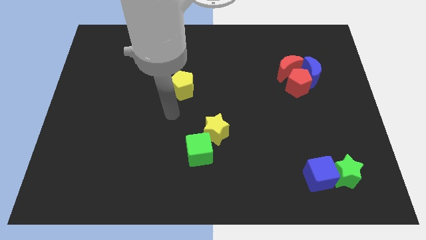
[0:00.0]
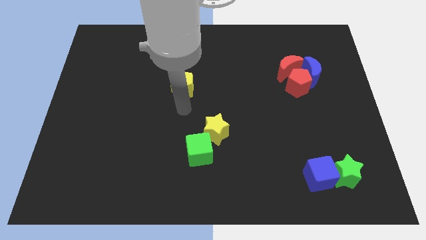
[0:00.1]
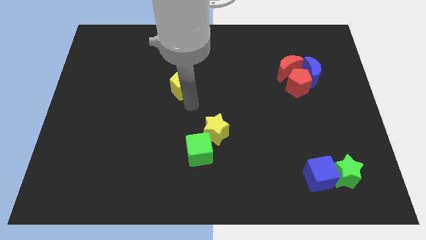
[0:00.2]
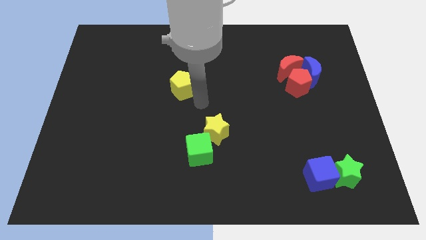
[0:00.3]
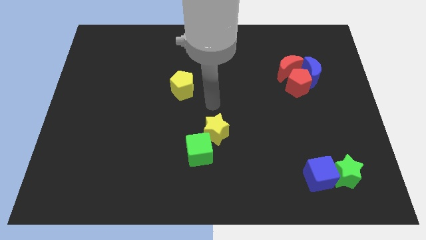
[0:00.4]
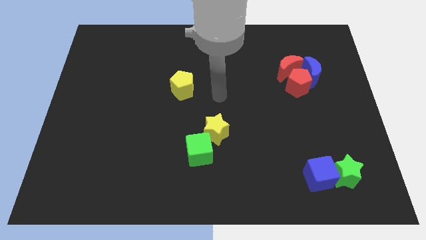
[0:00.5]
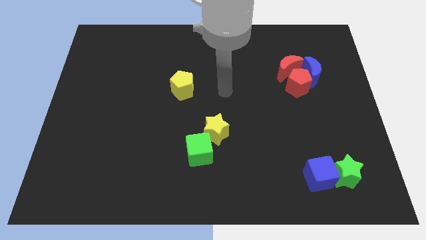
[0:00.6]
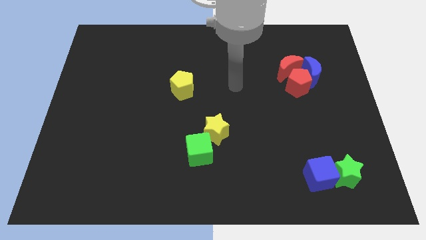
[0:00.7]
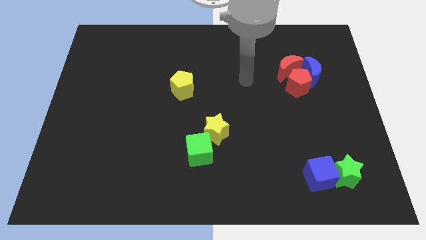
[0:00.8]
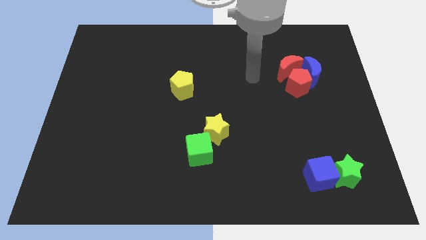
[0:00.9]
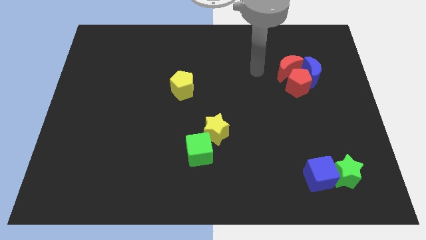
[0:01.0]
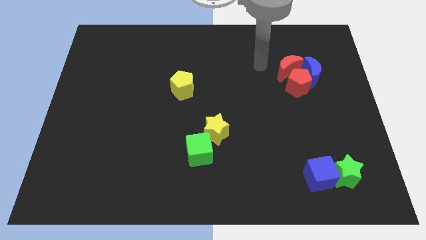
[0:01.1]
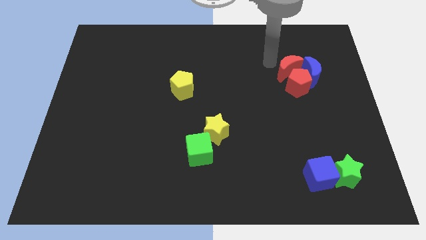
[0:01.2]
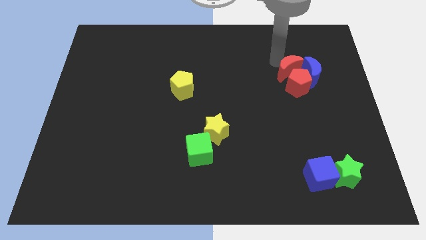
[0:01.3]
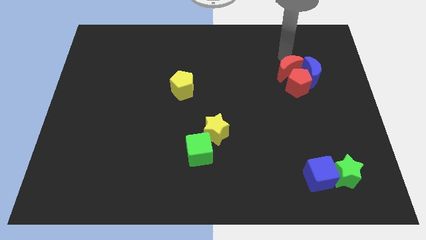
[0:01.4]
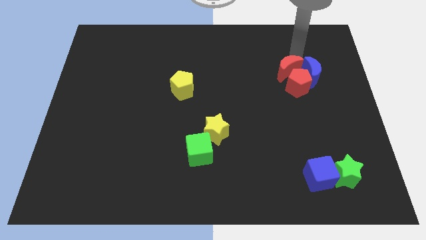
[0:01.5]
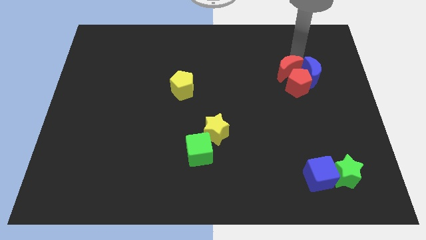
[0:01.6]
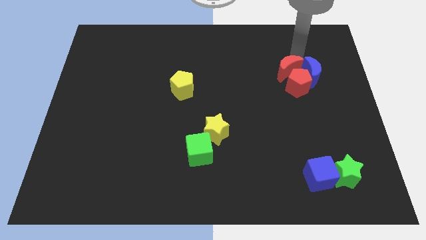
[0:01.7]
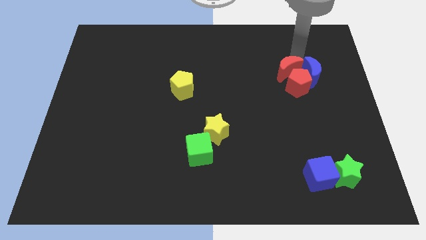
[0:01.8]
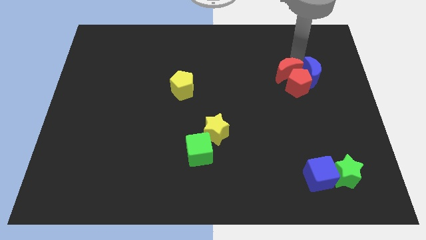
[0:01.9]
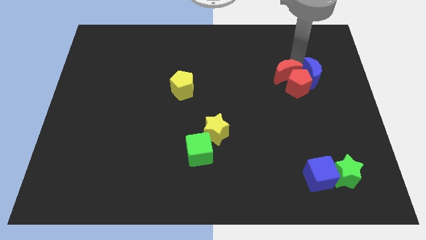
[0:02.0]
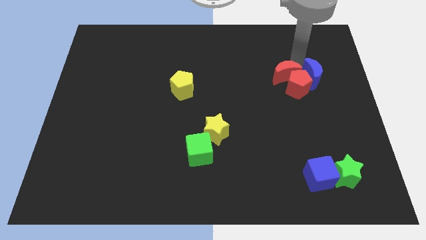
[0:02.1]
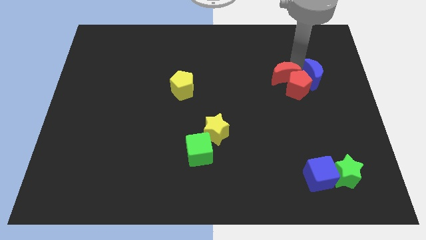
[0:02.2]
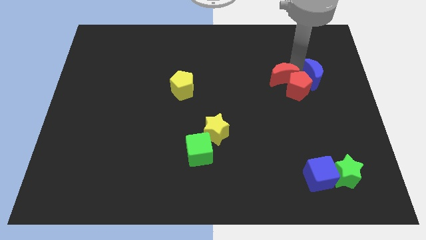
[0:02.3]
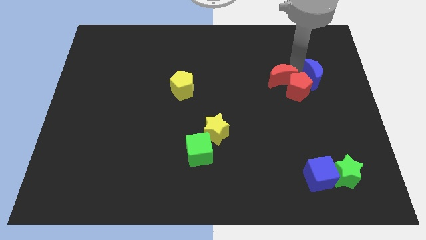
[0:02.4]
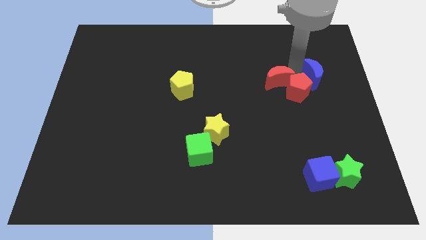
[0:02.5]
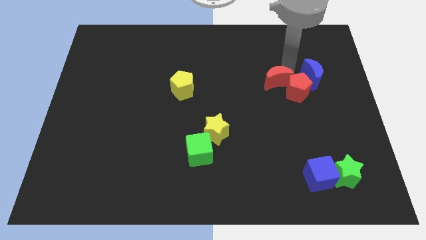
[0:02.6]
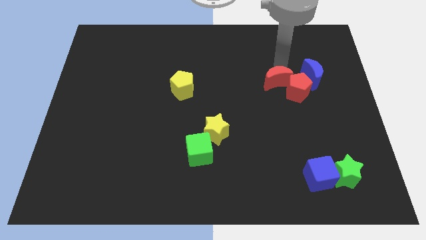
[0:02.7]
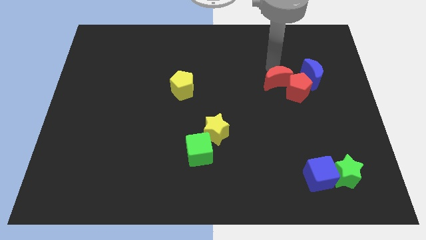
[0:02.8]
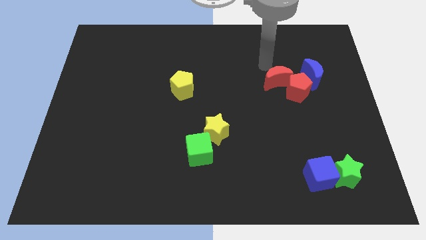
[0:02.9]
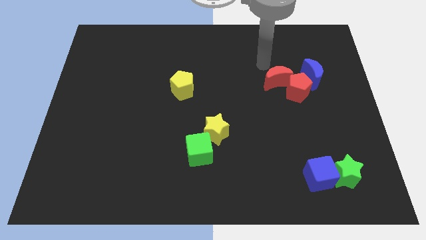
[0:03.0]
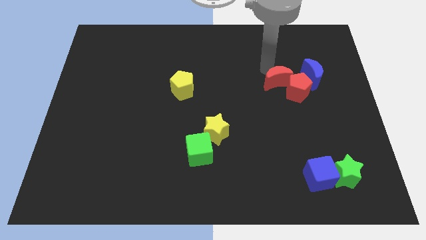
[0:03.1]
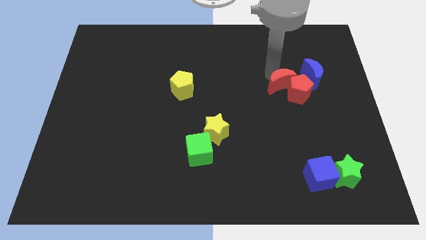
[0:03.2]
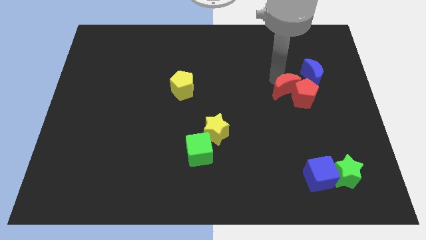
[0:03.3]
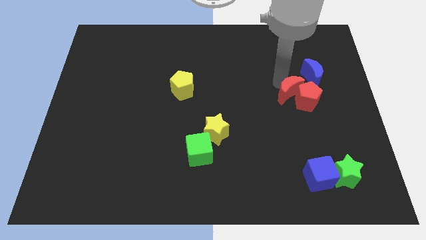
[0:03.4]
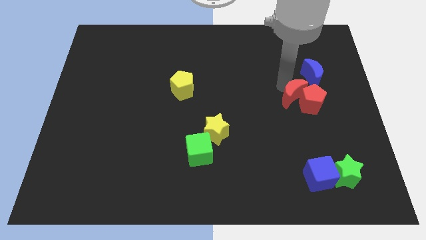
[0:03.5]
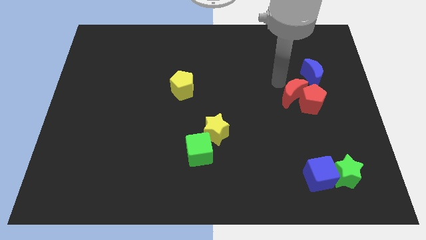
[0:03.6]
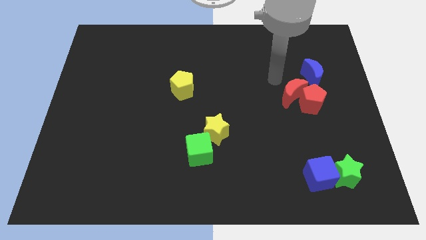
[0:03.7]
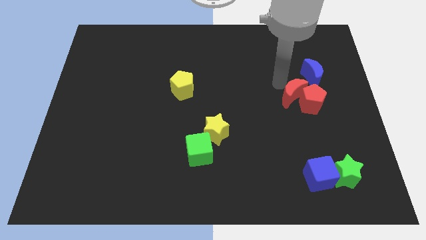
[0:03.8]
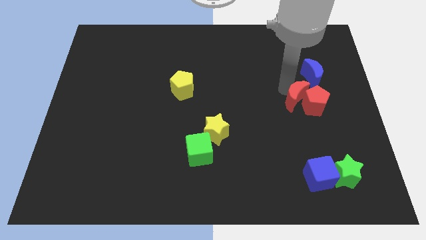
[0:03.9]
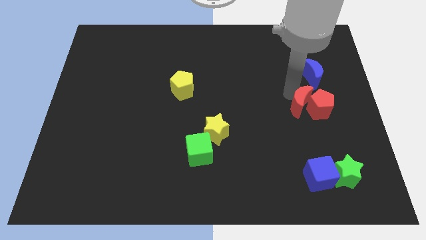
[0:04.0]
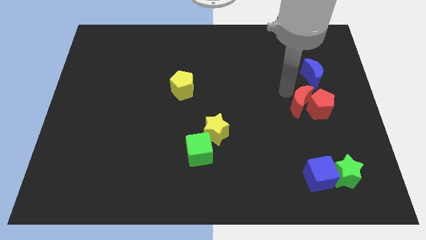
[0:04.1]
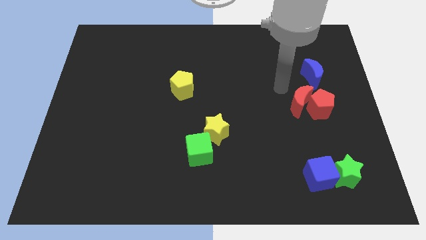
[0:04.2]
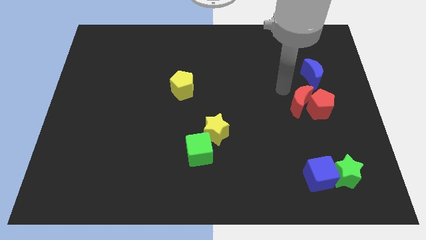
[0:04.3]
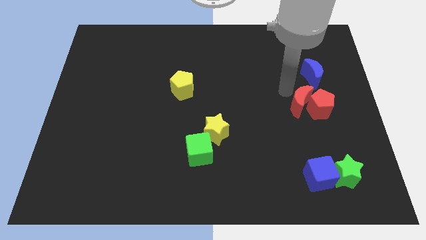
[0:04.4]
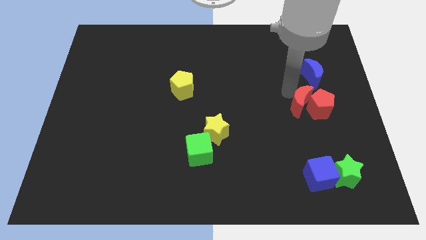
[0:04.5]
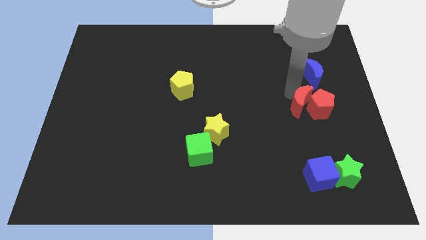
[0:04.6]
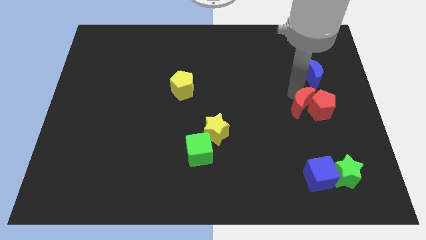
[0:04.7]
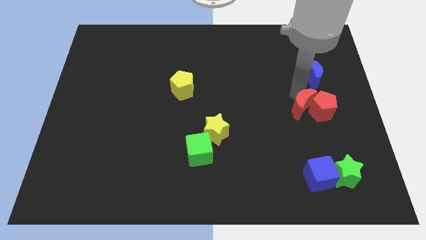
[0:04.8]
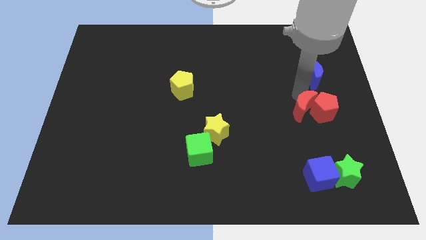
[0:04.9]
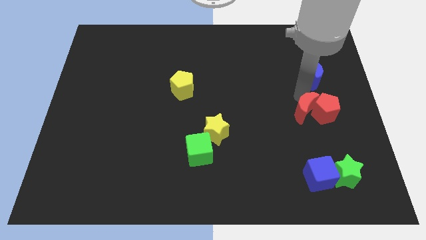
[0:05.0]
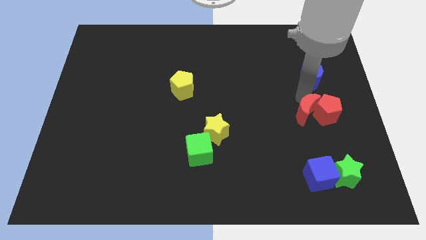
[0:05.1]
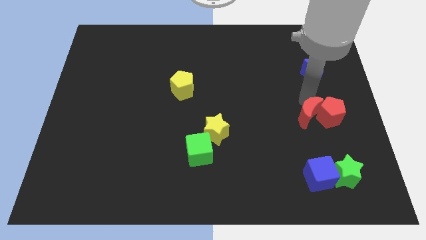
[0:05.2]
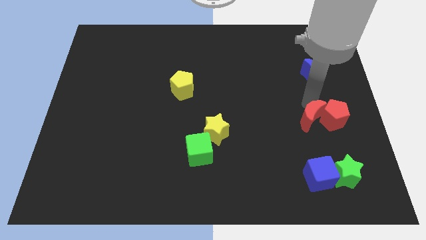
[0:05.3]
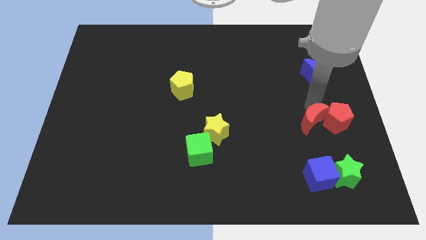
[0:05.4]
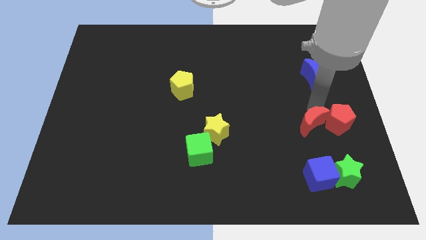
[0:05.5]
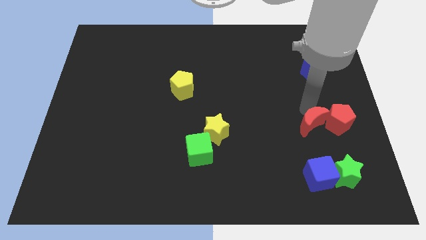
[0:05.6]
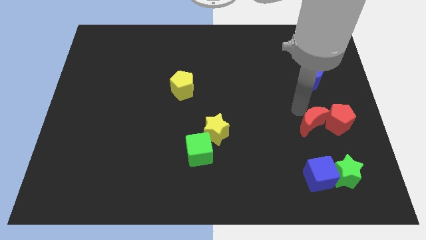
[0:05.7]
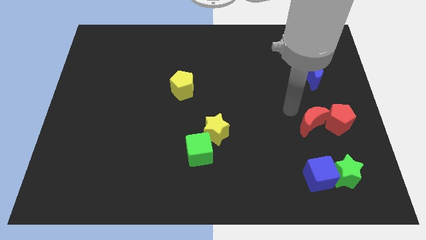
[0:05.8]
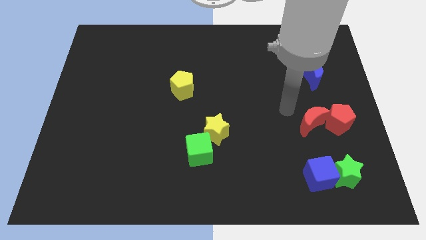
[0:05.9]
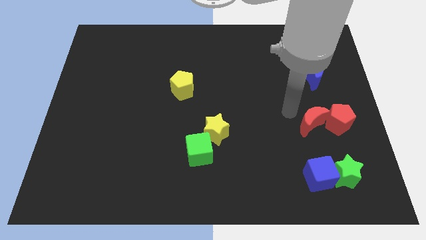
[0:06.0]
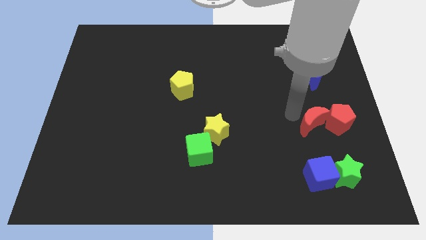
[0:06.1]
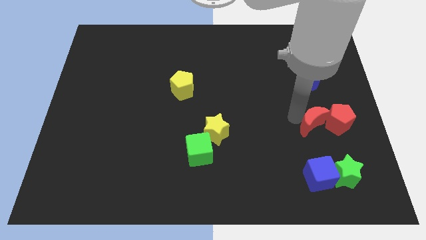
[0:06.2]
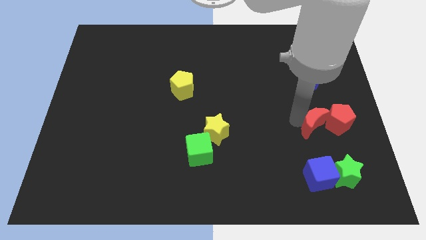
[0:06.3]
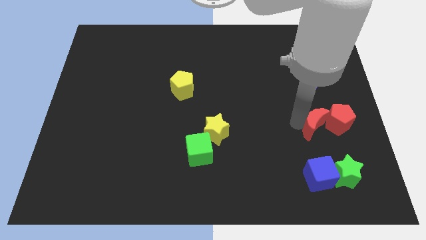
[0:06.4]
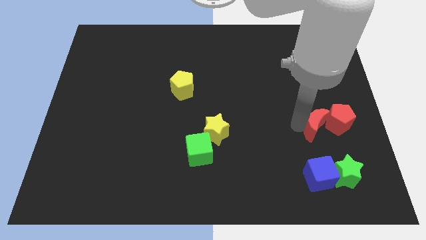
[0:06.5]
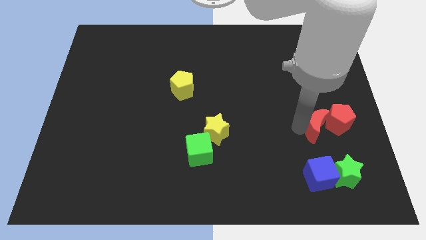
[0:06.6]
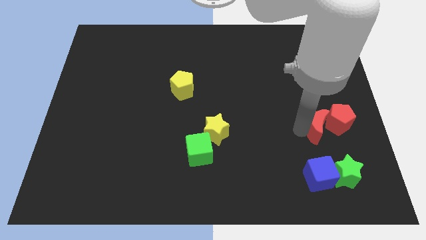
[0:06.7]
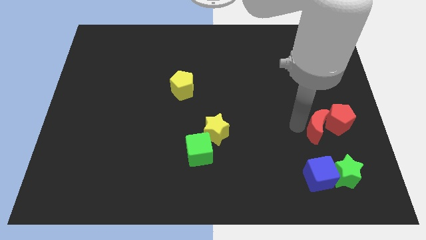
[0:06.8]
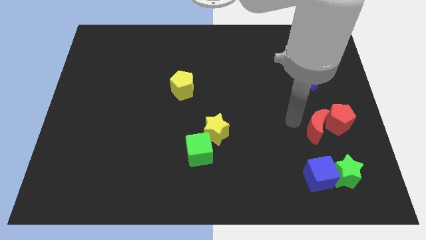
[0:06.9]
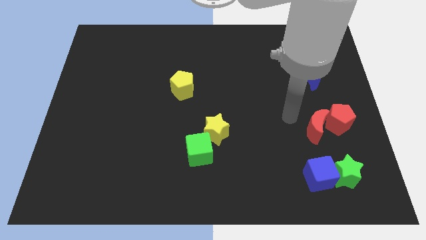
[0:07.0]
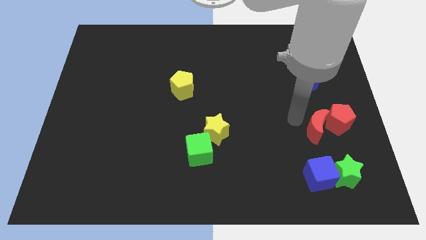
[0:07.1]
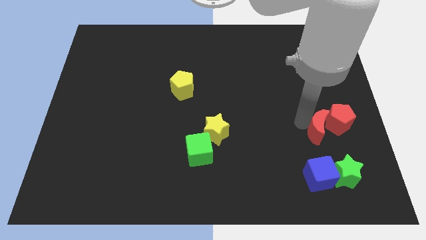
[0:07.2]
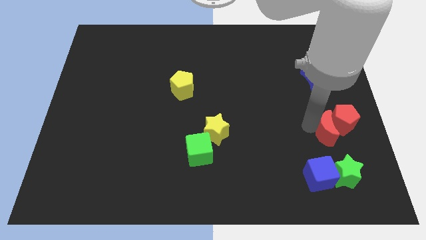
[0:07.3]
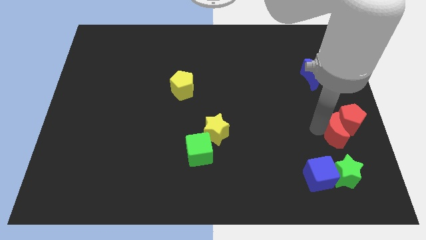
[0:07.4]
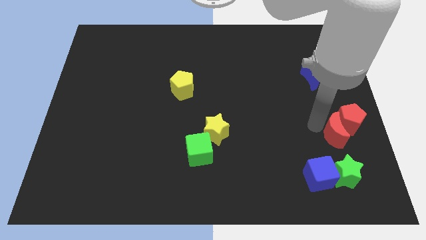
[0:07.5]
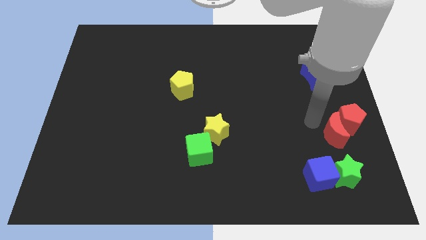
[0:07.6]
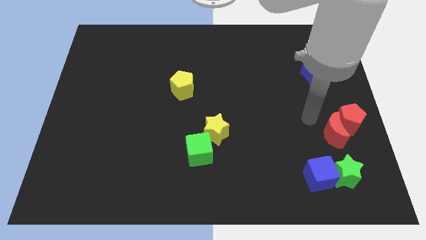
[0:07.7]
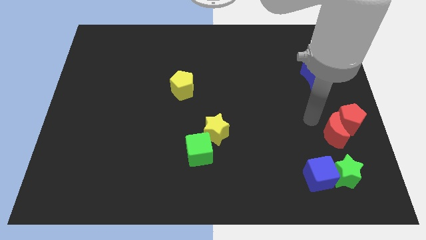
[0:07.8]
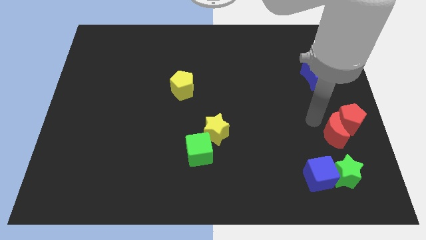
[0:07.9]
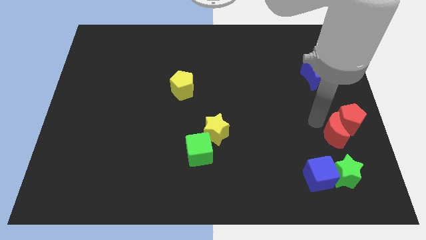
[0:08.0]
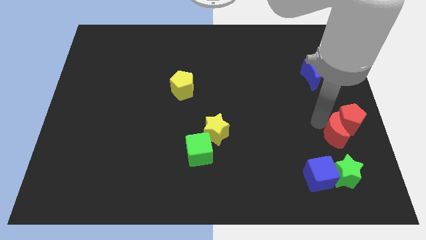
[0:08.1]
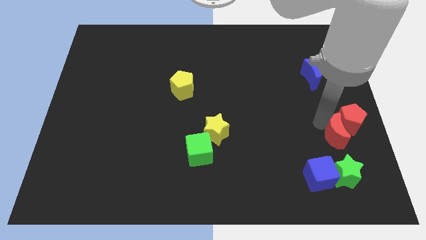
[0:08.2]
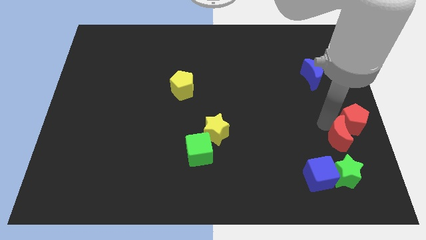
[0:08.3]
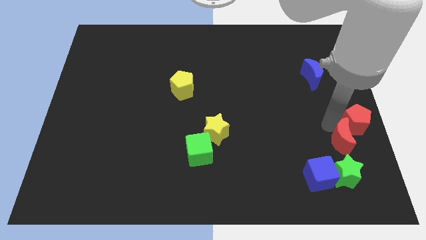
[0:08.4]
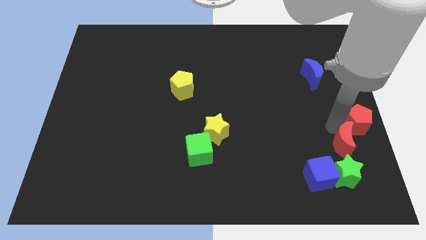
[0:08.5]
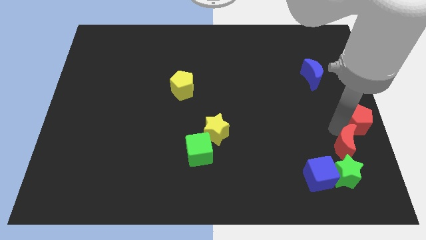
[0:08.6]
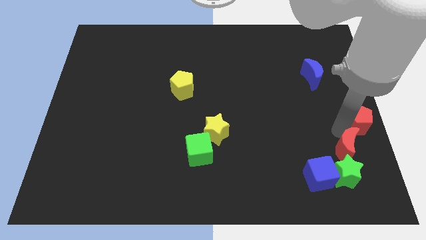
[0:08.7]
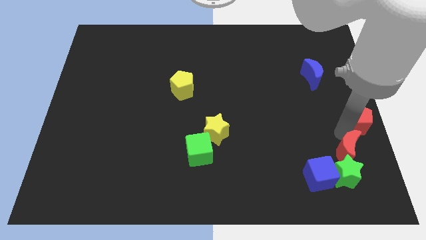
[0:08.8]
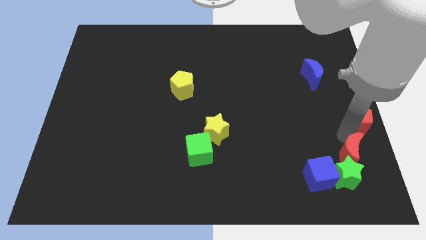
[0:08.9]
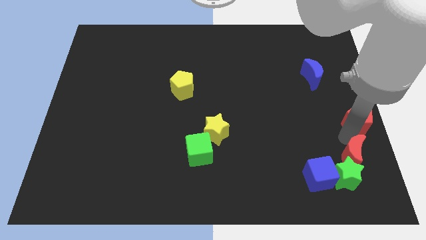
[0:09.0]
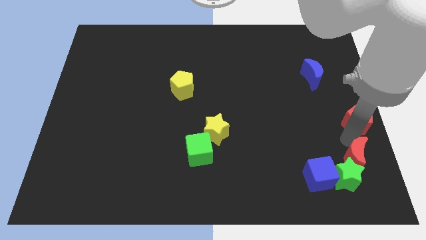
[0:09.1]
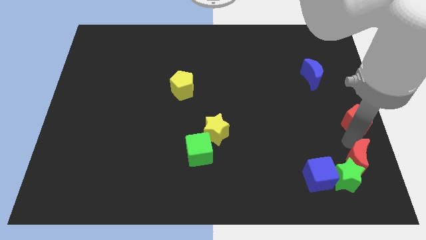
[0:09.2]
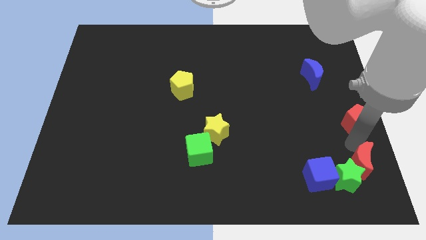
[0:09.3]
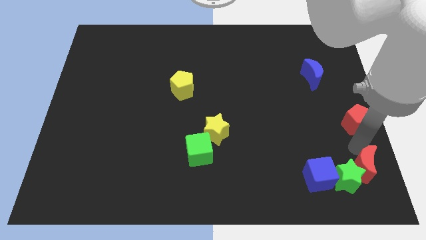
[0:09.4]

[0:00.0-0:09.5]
put the red moon to the lower right corner
